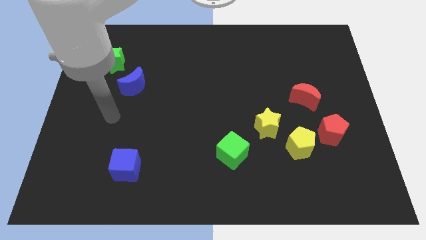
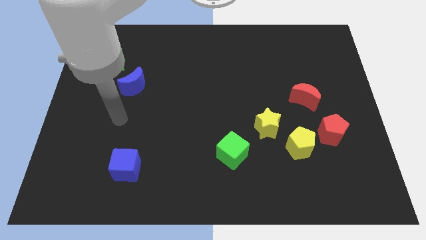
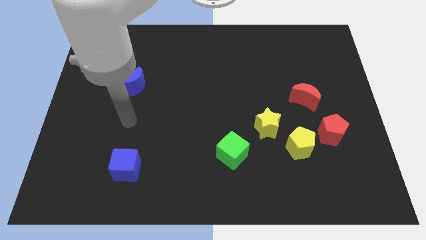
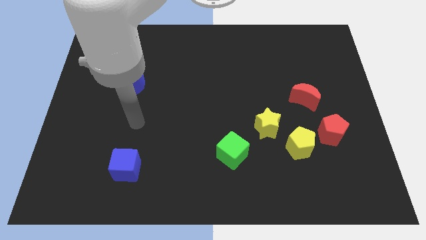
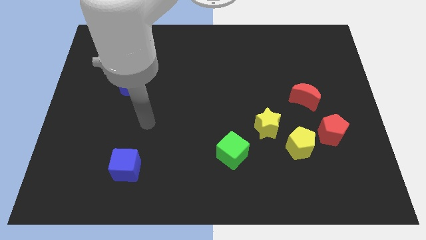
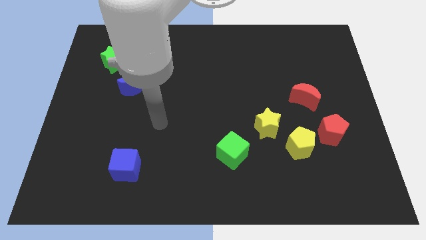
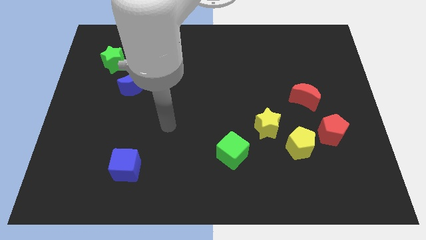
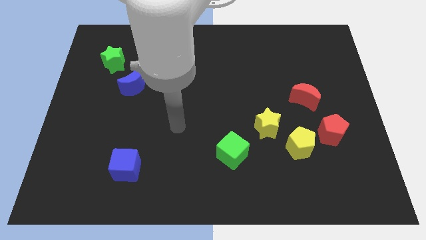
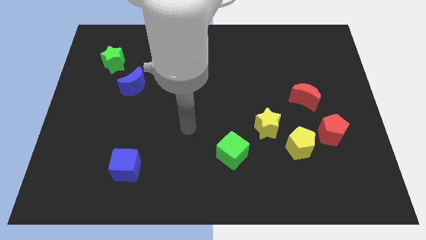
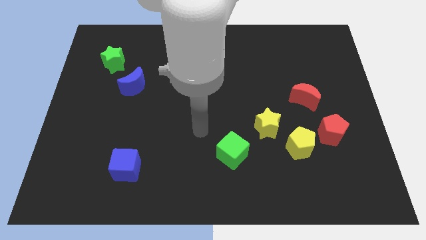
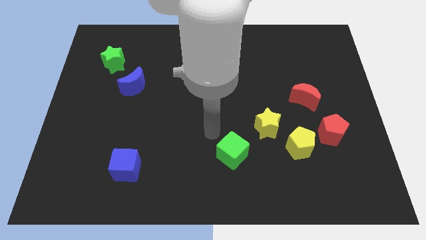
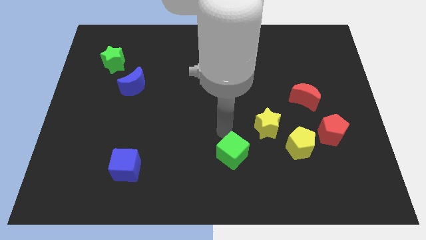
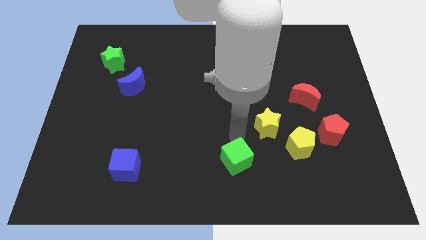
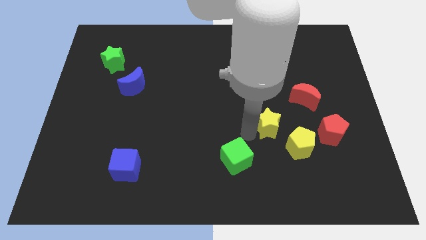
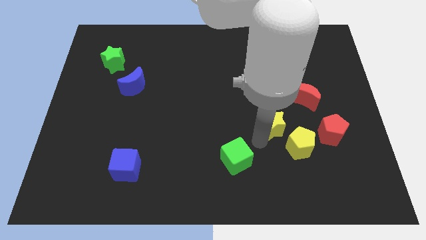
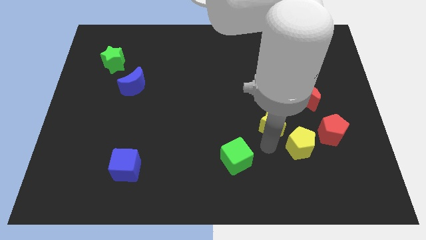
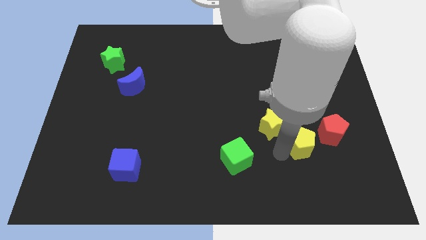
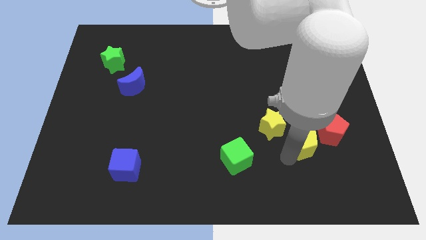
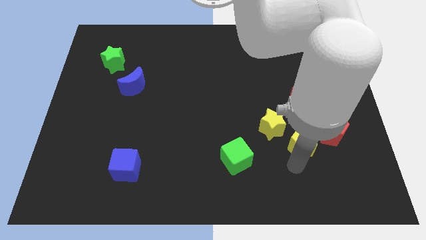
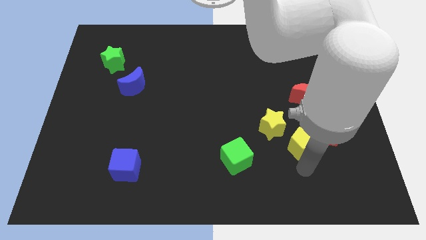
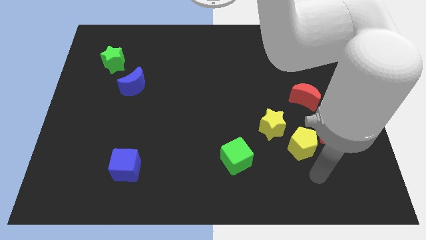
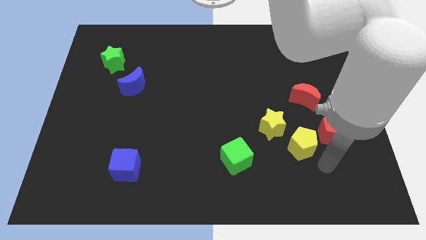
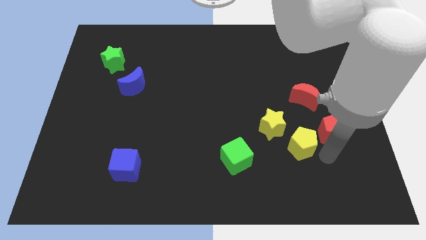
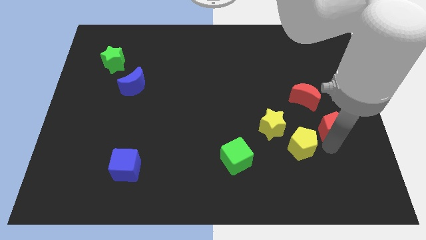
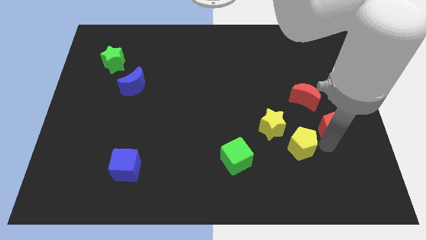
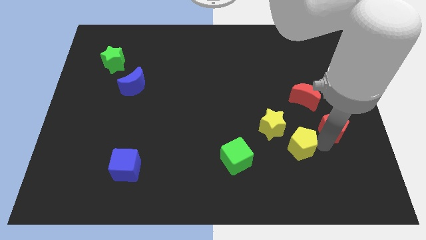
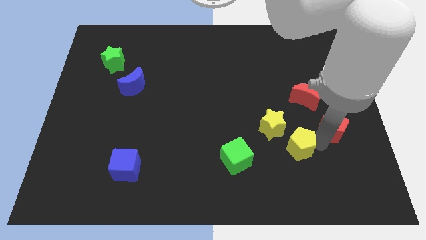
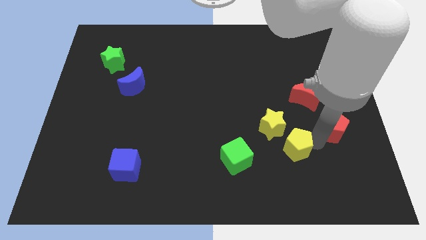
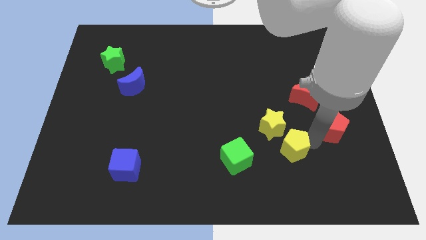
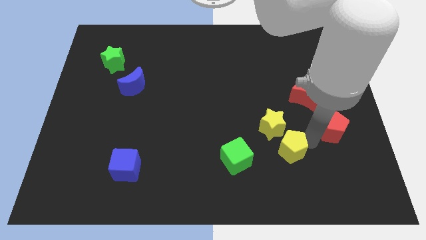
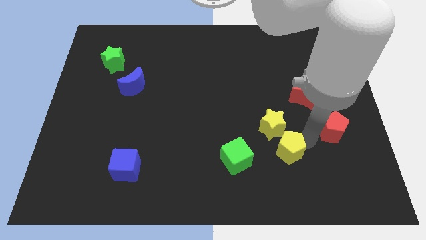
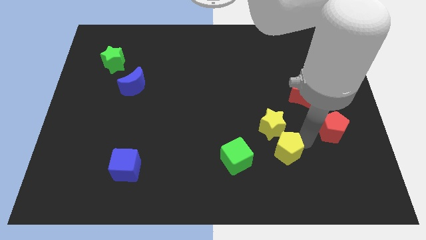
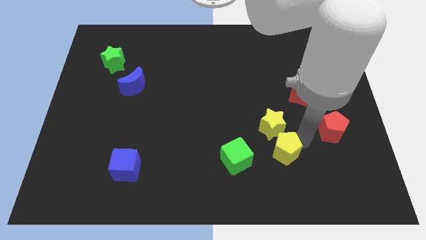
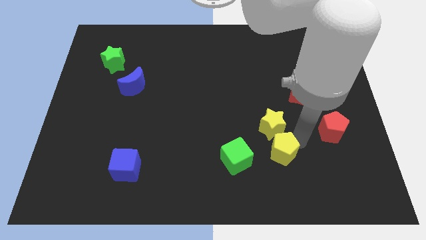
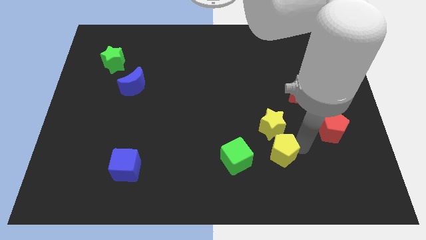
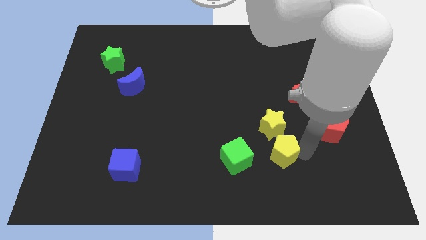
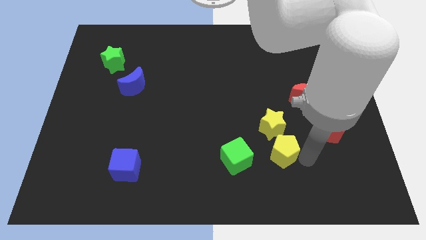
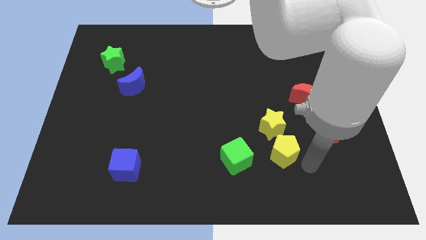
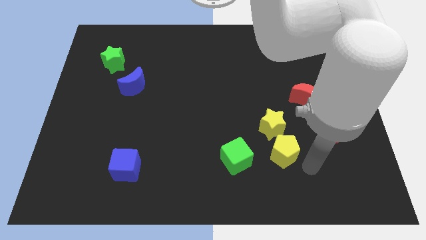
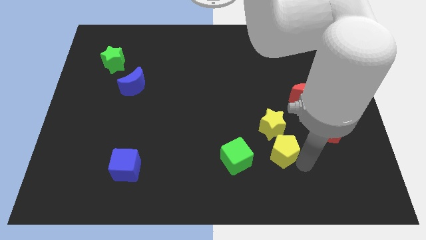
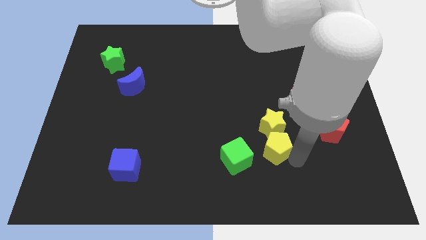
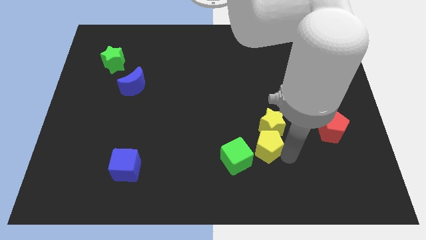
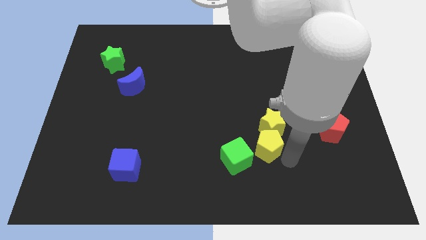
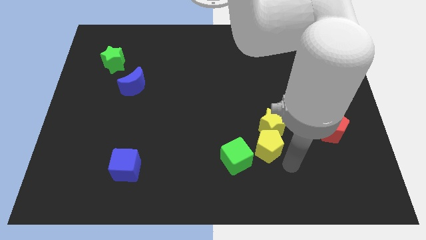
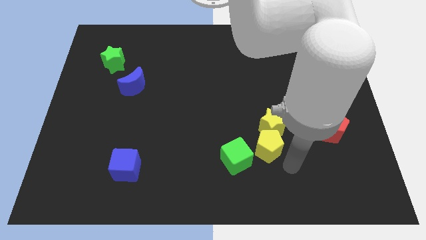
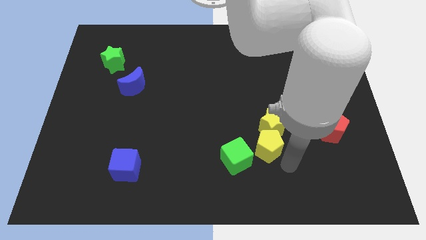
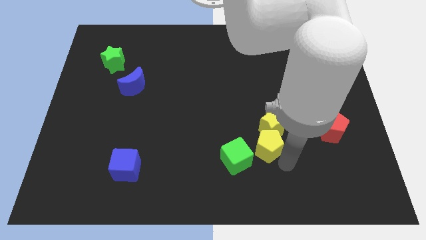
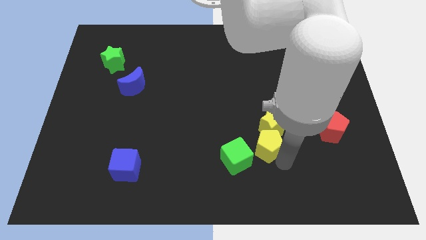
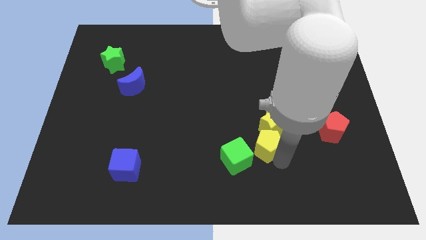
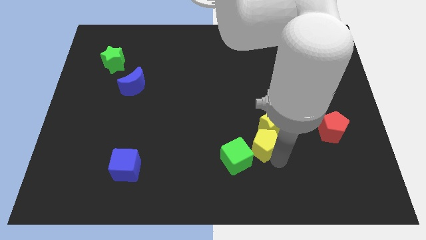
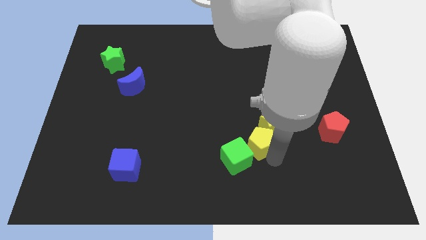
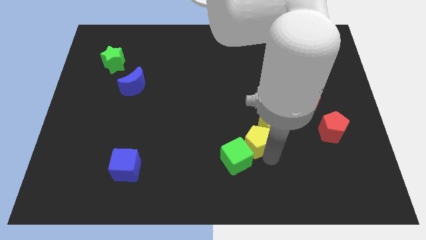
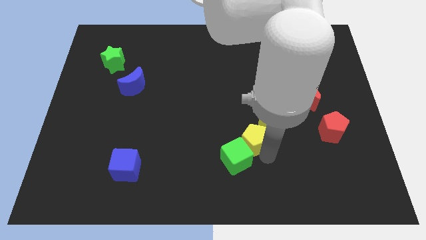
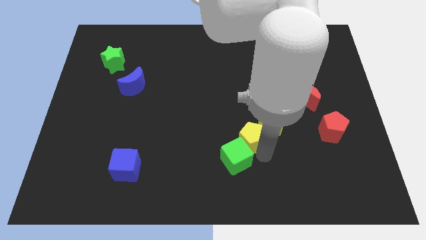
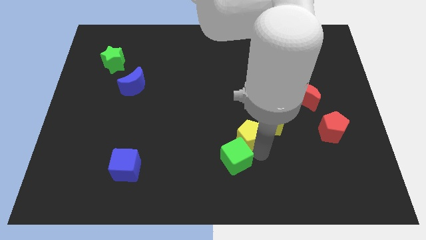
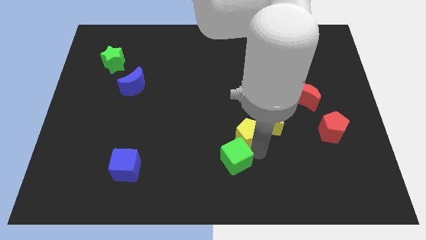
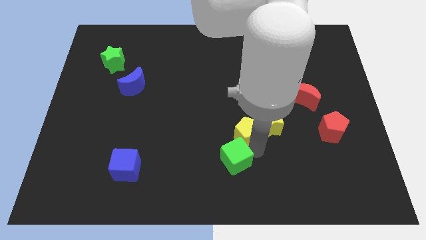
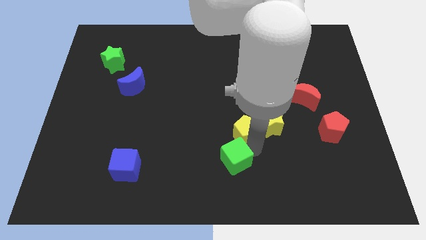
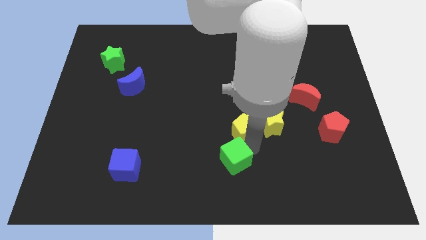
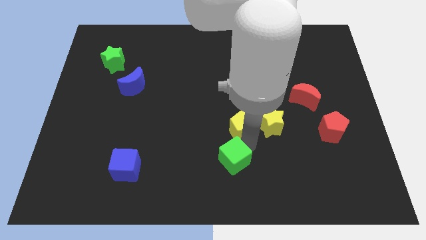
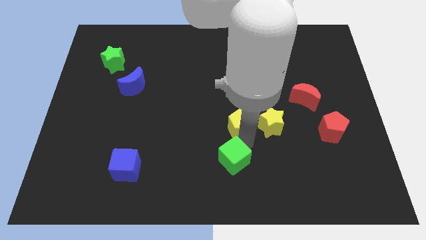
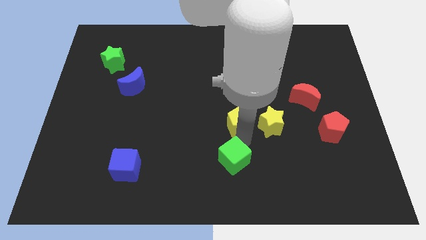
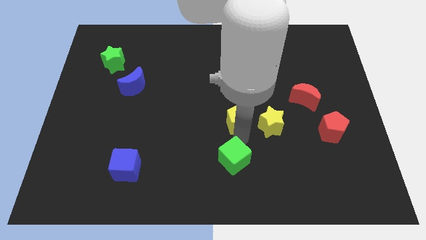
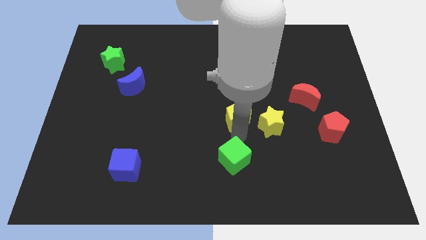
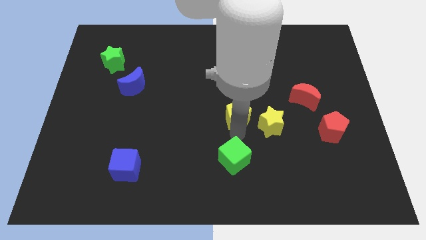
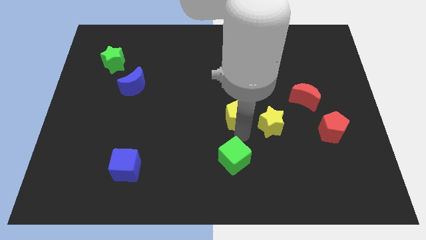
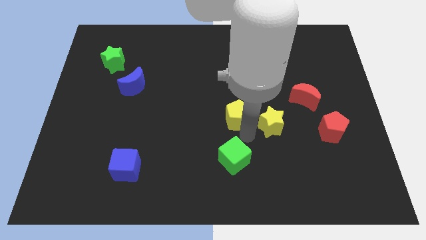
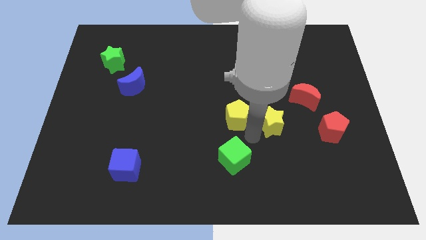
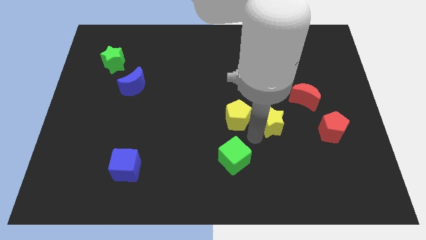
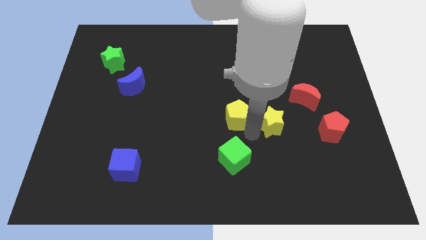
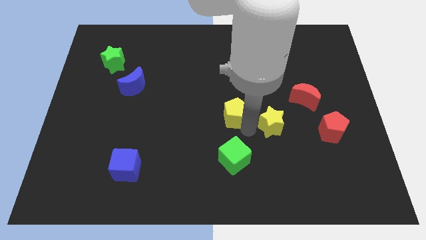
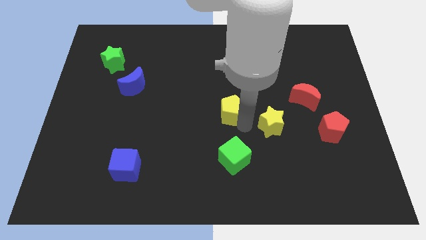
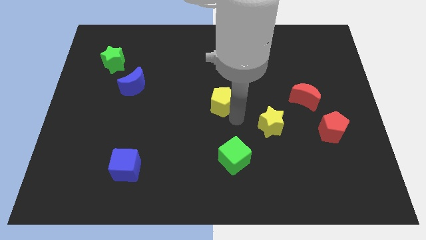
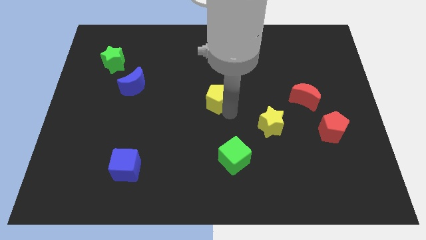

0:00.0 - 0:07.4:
move the yellow pentagon upwards and left

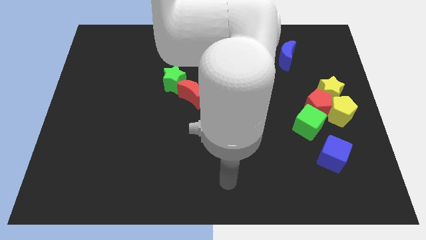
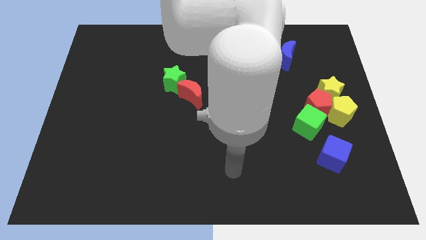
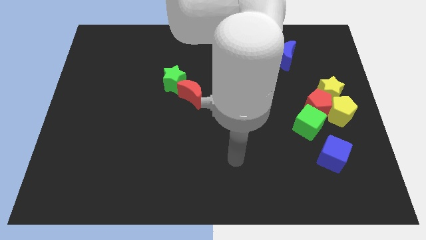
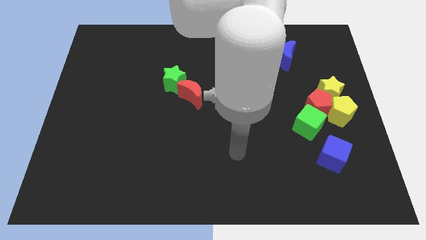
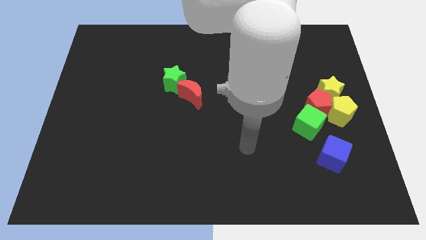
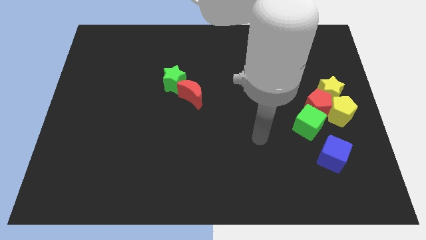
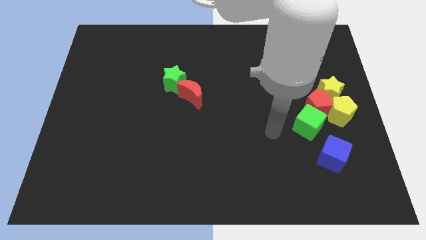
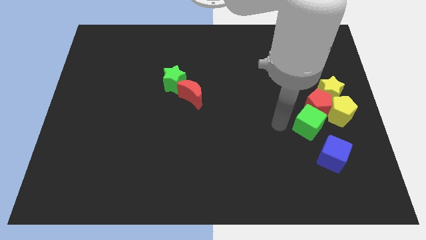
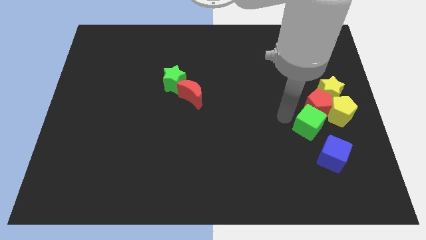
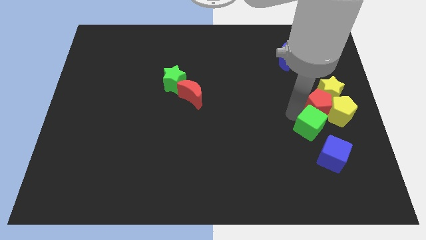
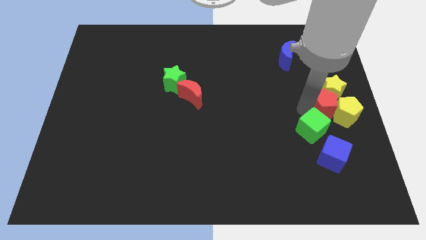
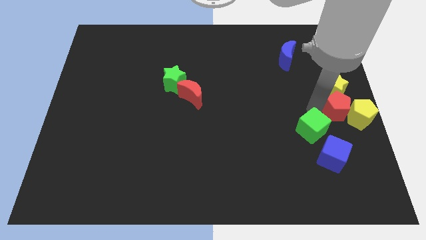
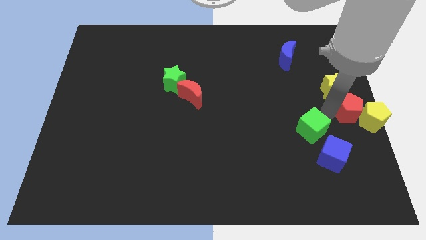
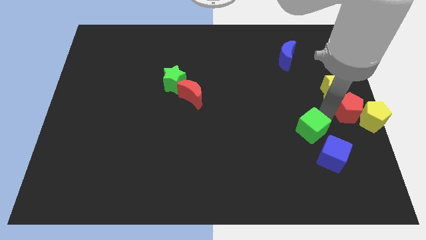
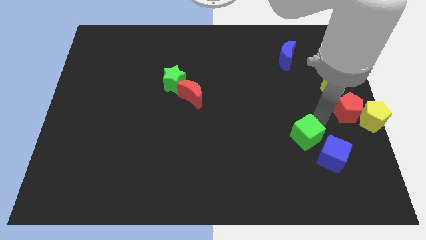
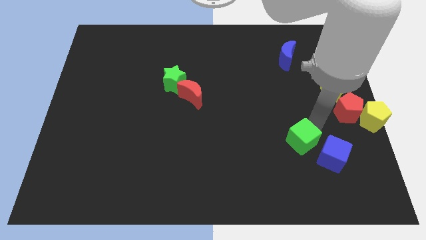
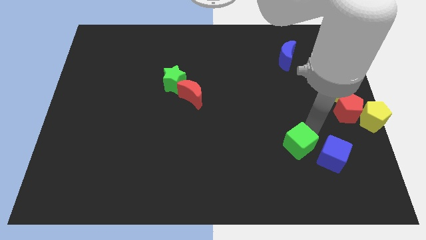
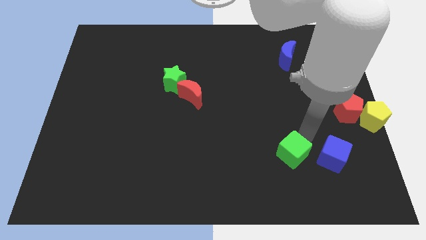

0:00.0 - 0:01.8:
slide the green cube down and then left somewhat
